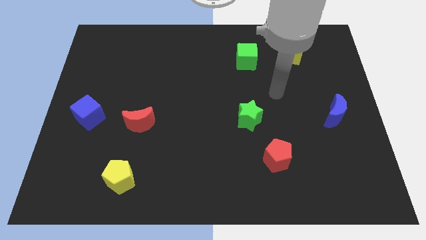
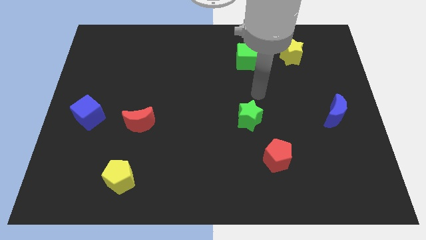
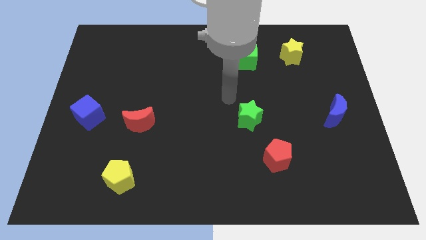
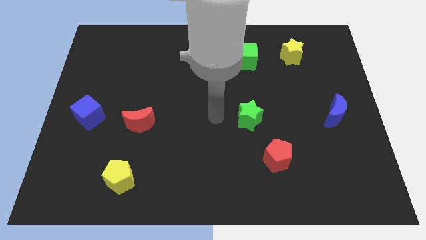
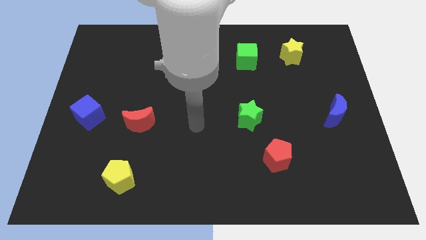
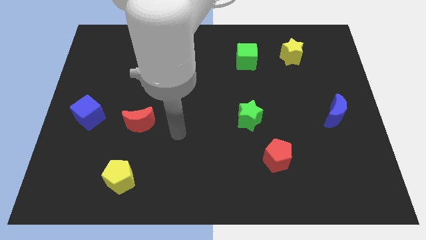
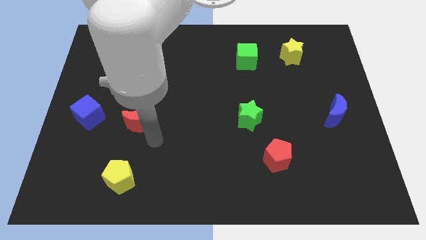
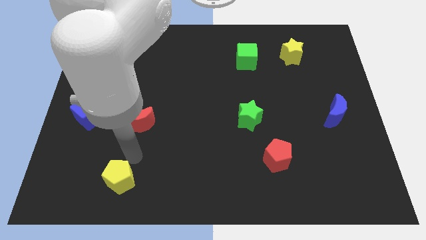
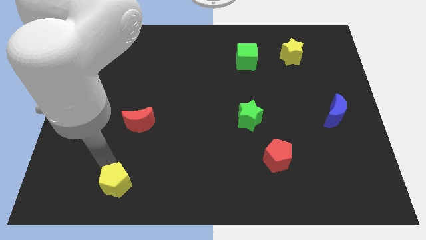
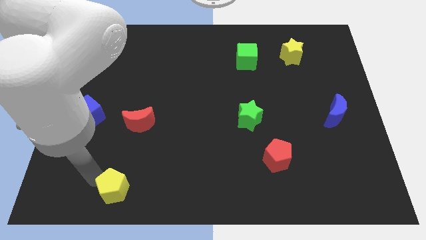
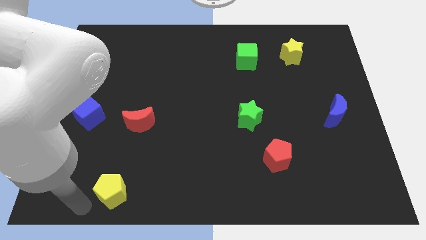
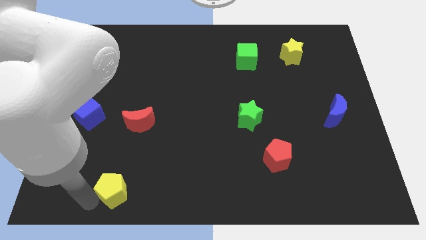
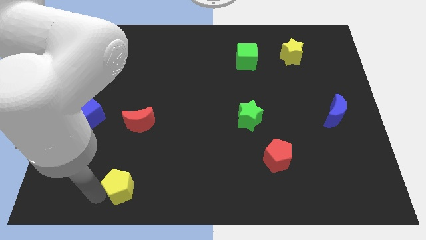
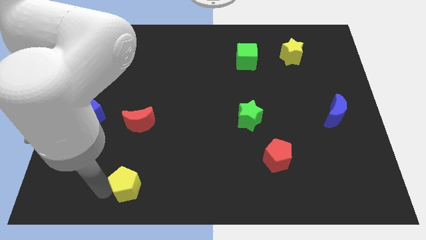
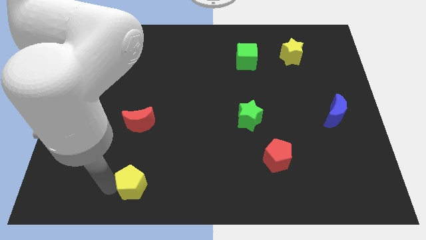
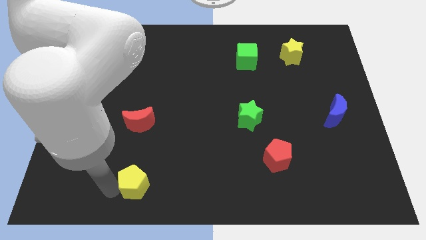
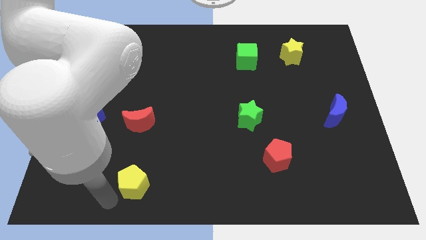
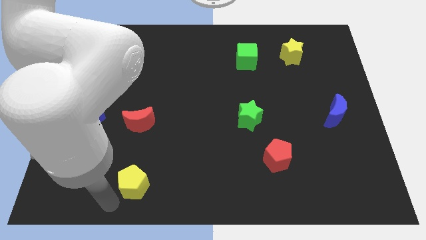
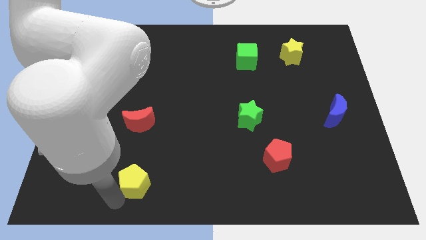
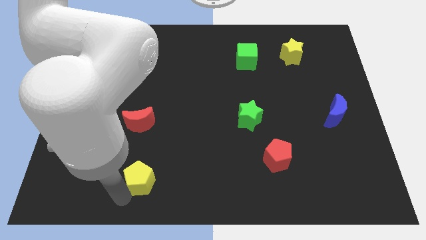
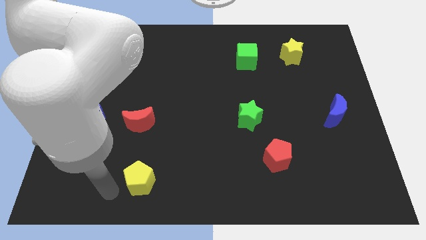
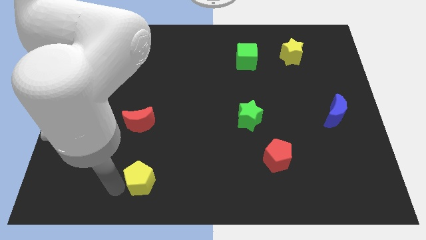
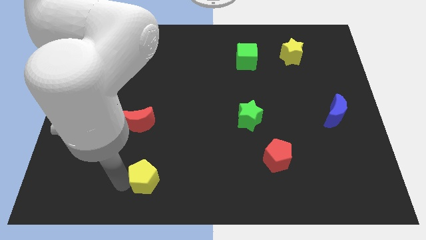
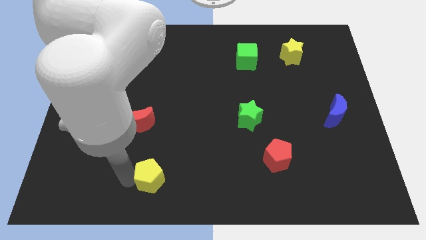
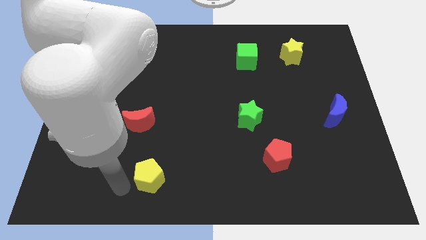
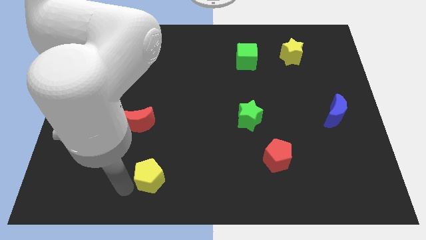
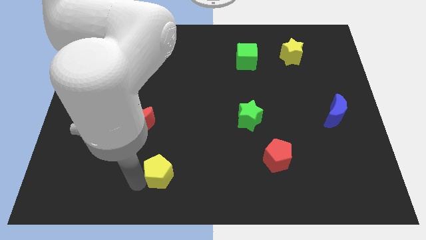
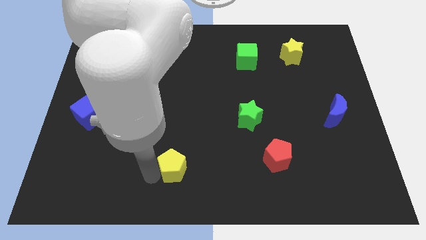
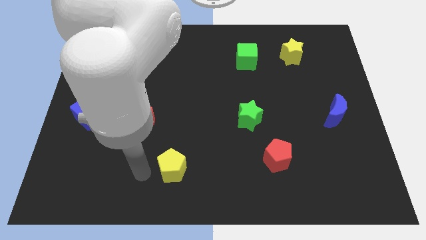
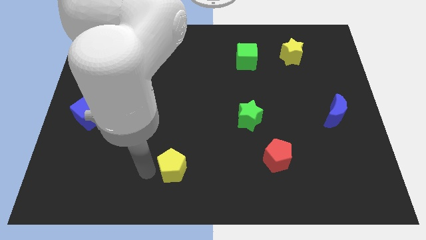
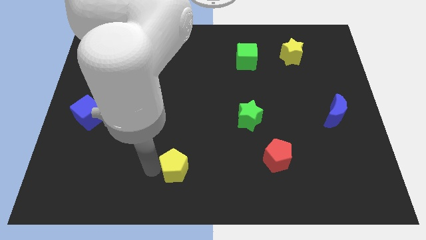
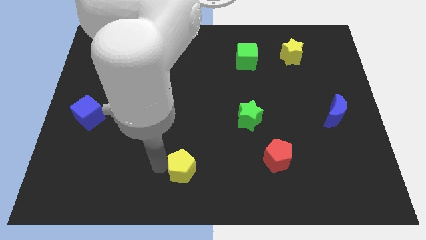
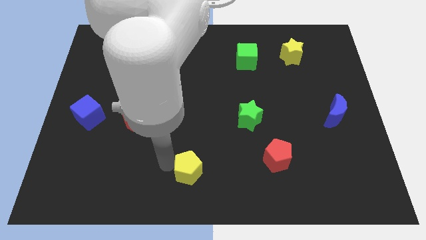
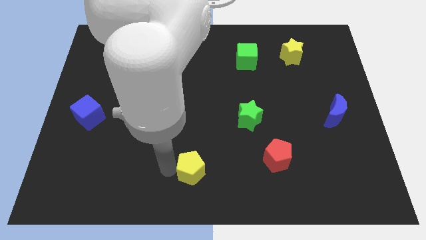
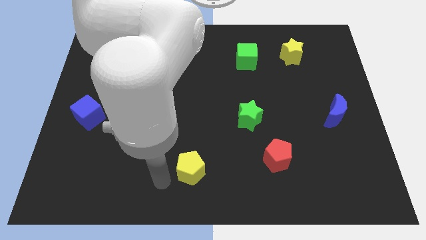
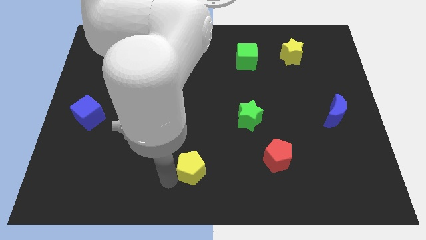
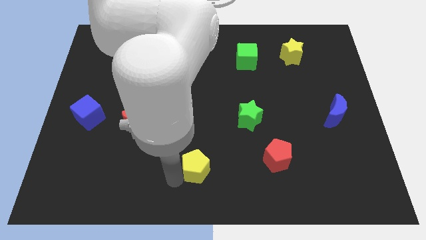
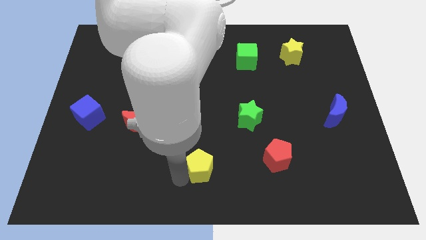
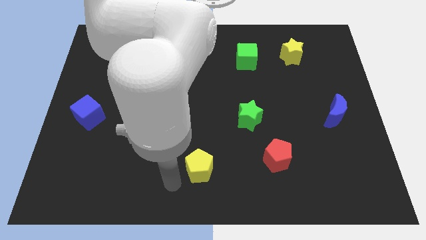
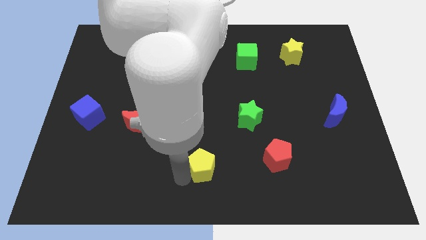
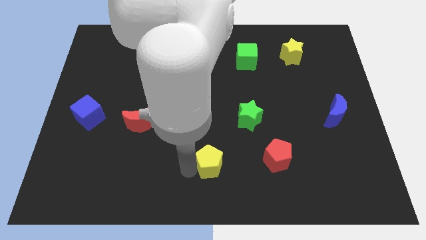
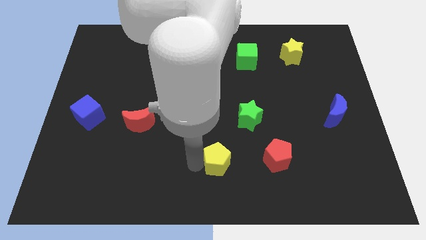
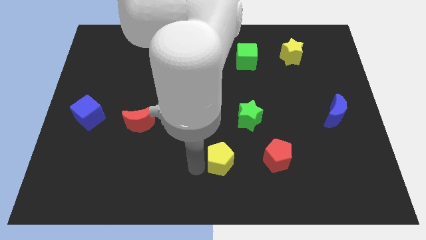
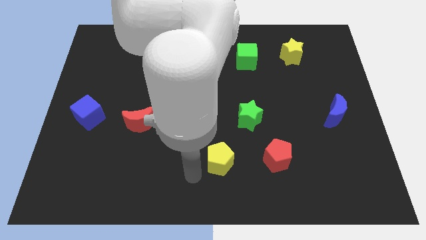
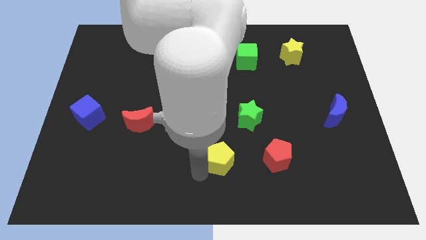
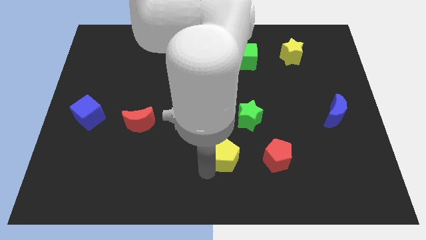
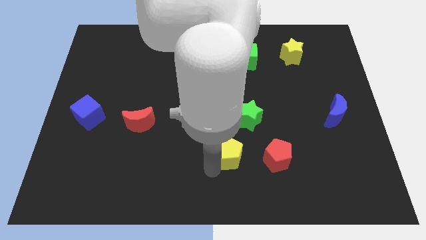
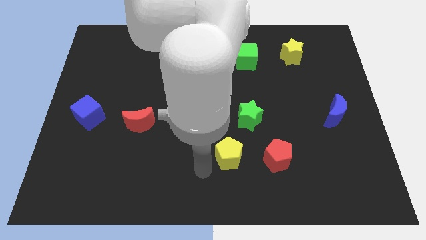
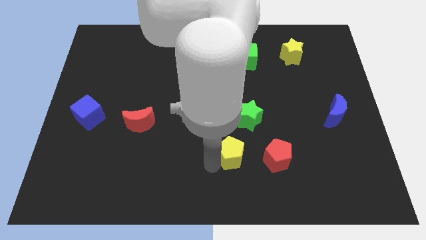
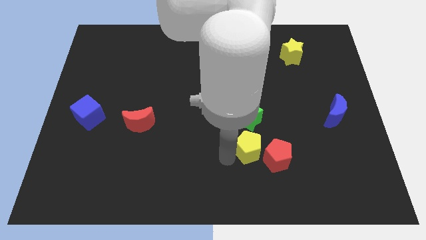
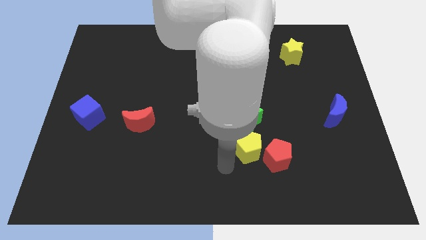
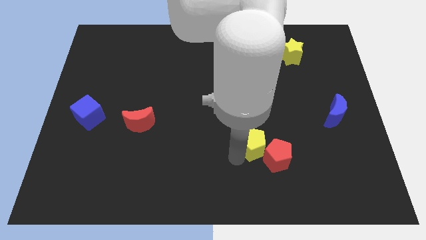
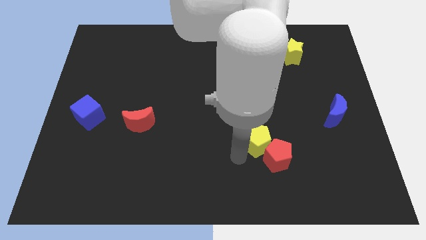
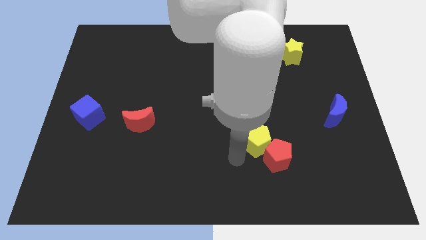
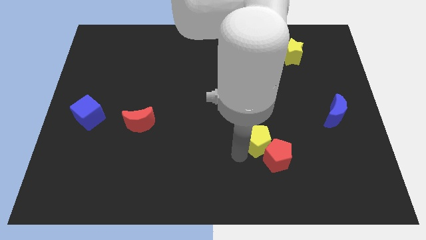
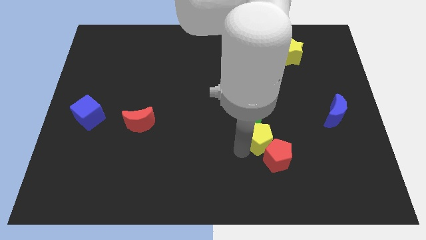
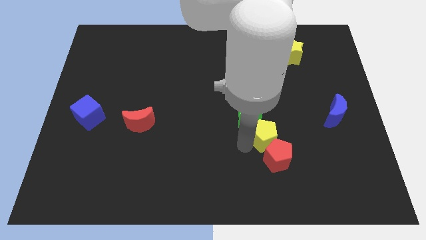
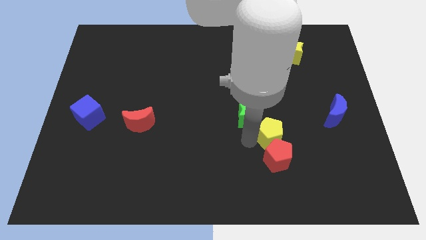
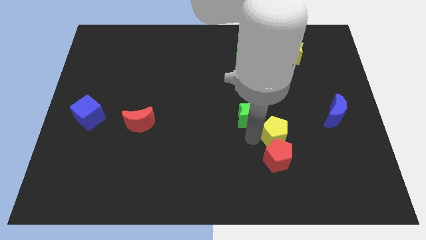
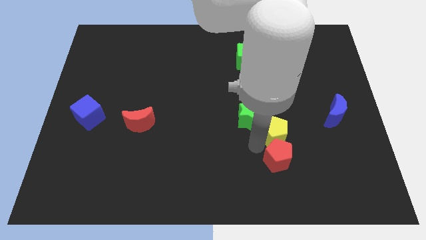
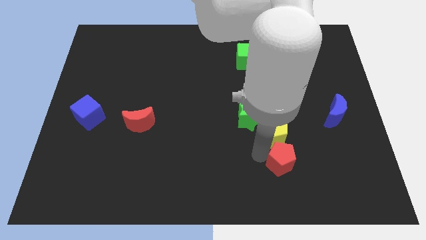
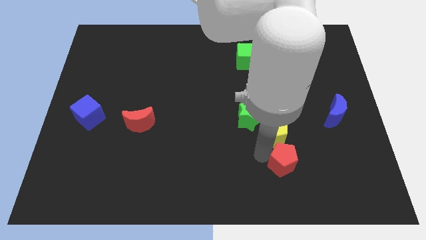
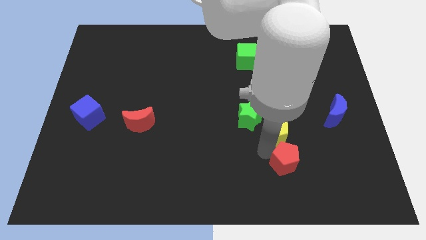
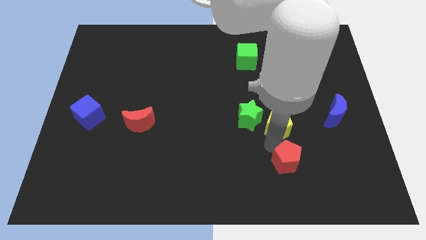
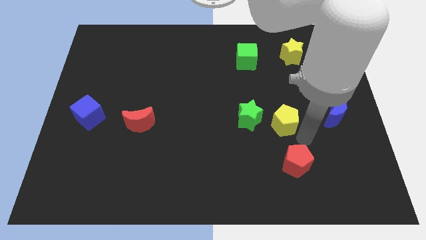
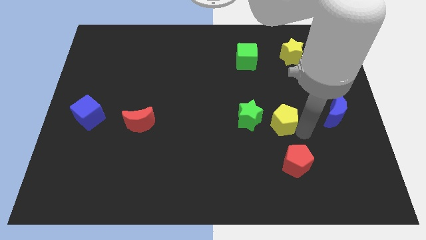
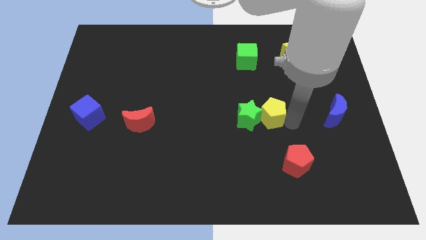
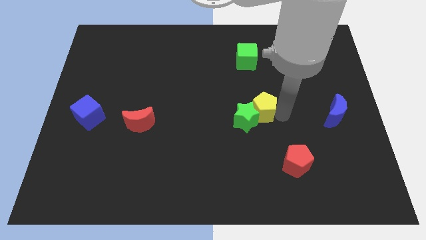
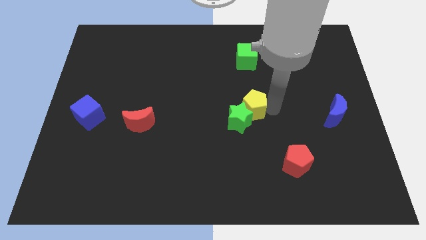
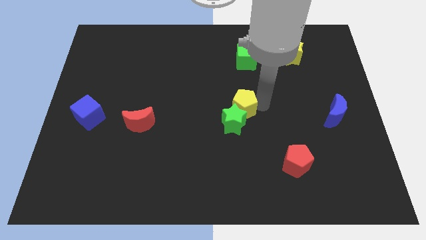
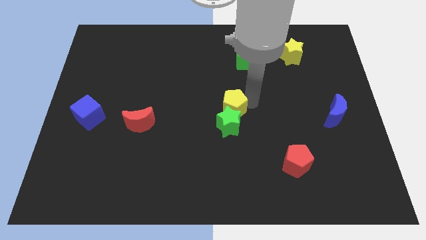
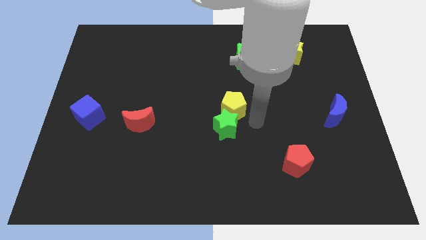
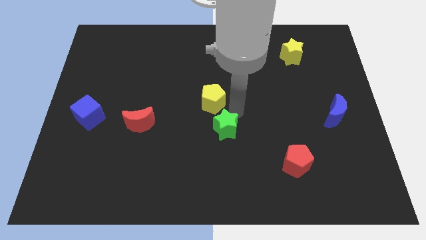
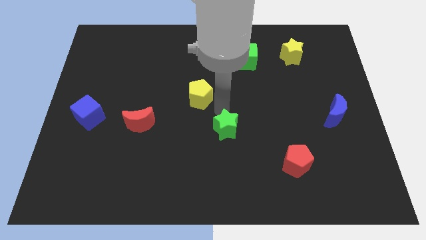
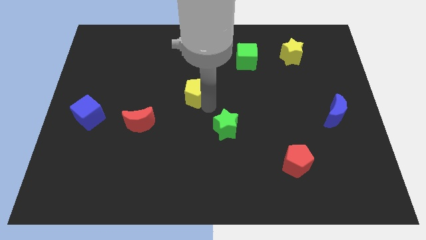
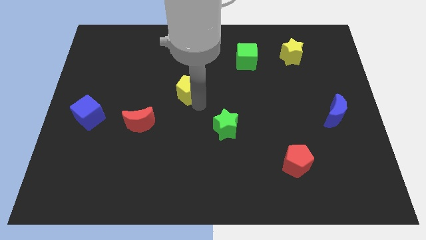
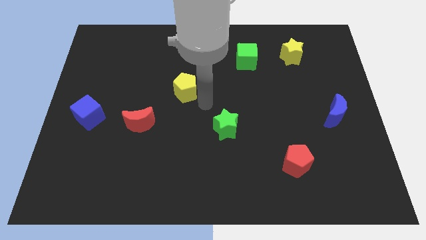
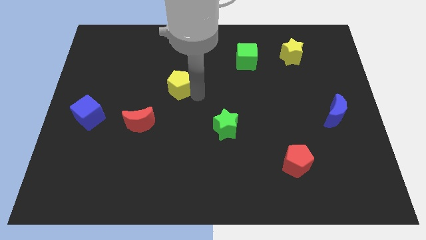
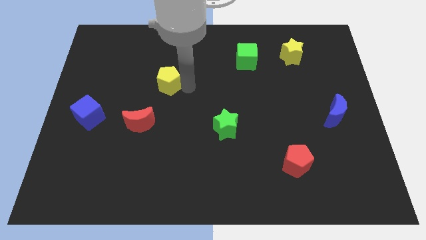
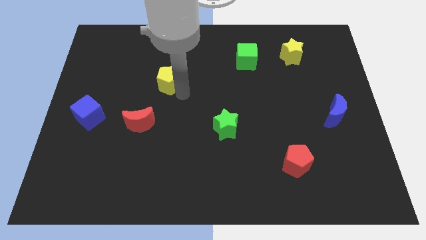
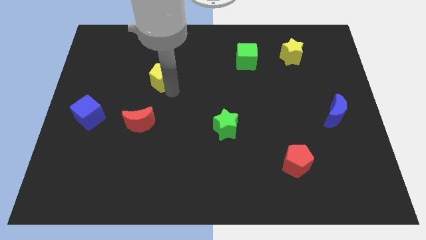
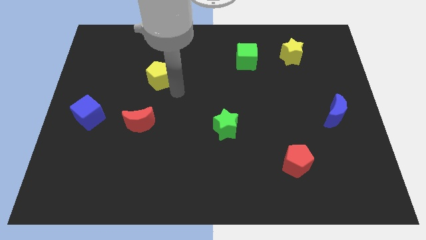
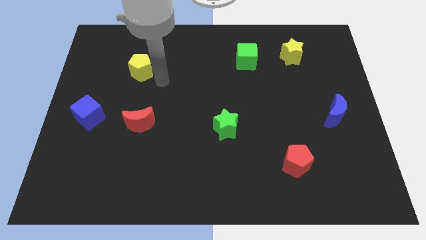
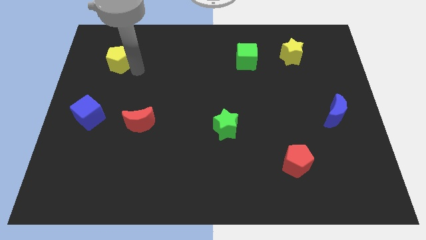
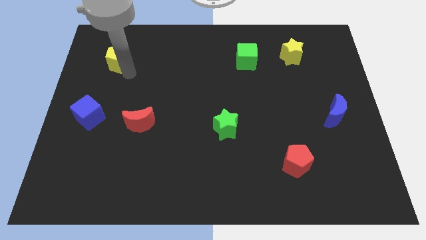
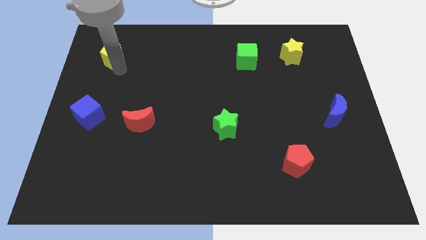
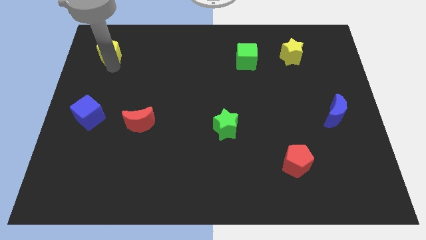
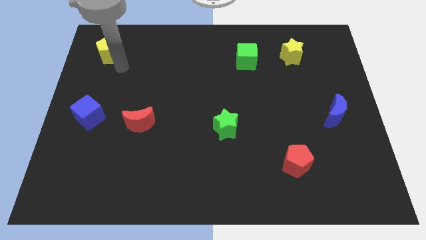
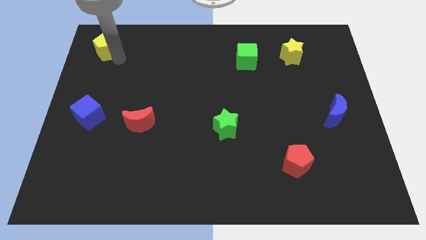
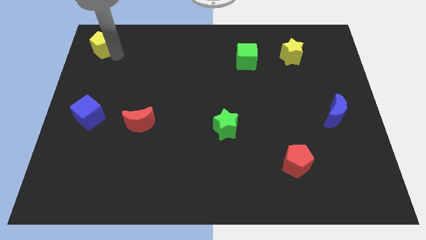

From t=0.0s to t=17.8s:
put the yellow pentagon to the top left
